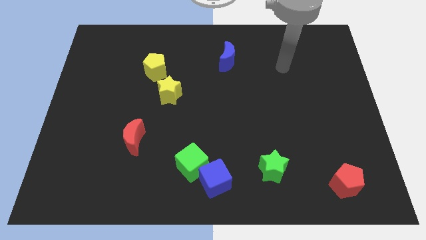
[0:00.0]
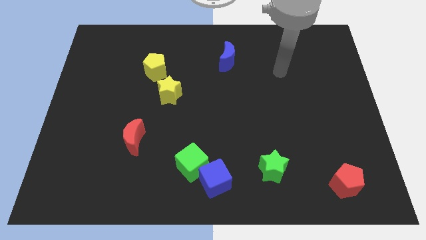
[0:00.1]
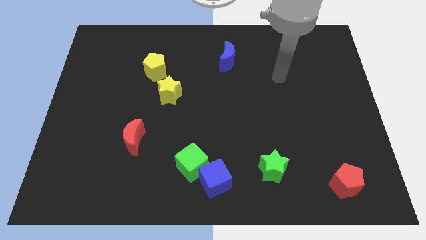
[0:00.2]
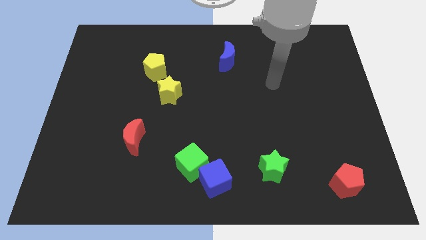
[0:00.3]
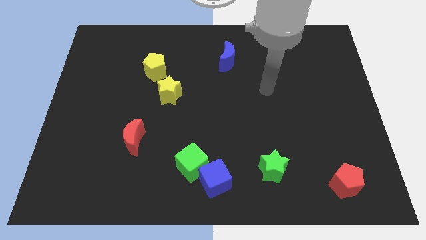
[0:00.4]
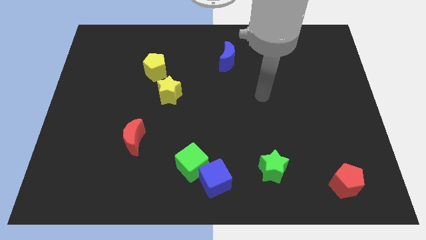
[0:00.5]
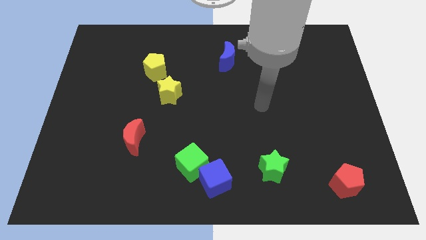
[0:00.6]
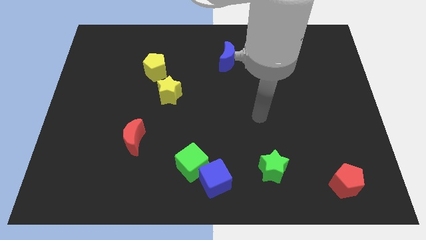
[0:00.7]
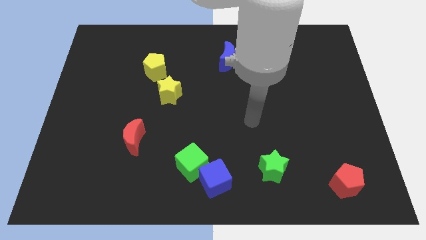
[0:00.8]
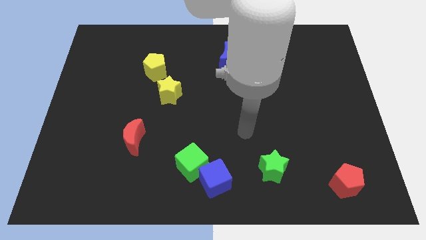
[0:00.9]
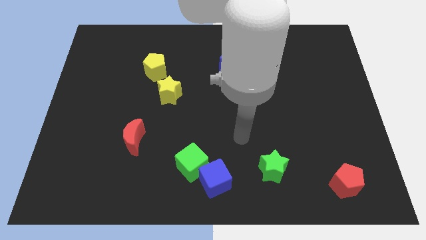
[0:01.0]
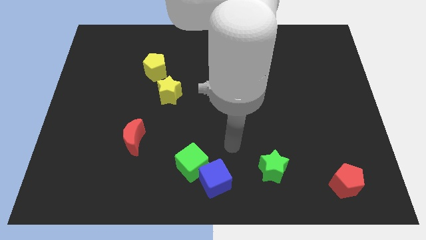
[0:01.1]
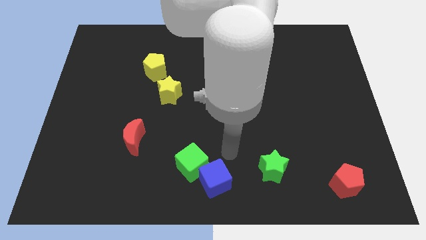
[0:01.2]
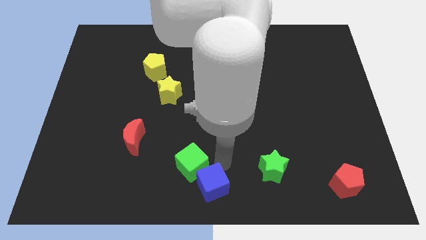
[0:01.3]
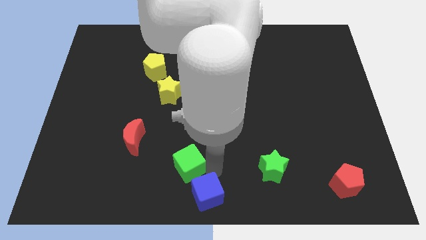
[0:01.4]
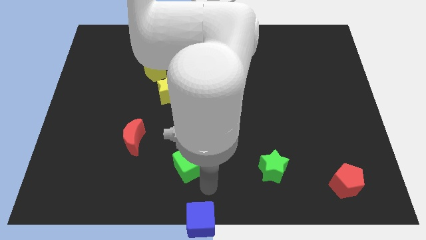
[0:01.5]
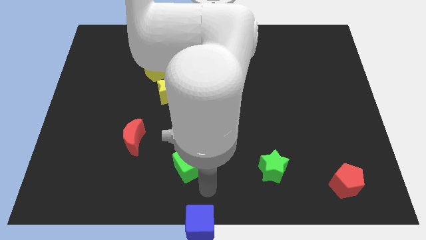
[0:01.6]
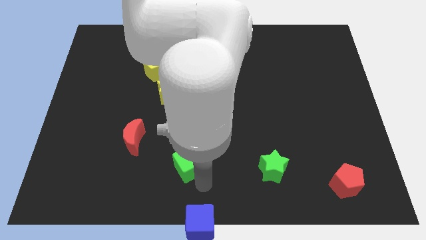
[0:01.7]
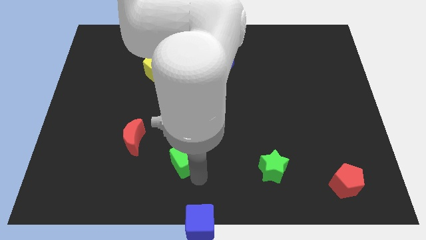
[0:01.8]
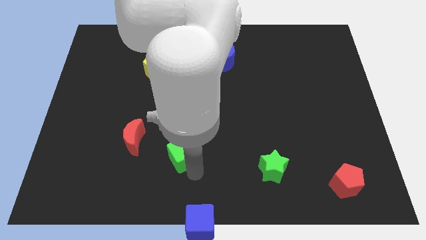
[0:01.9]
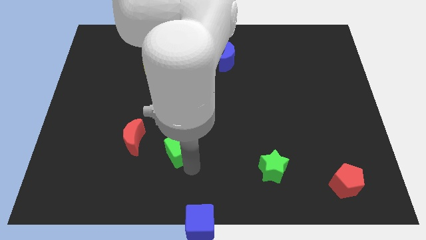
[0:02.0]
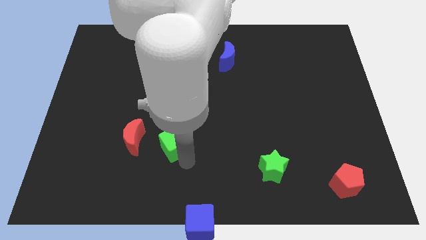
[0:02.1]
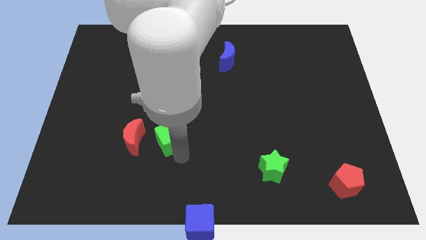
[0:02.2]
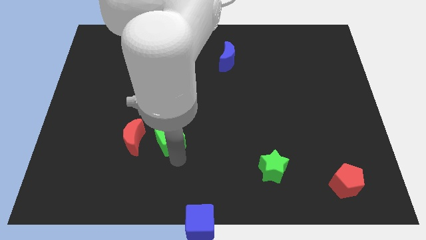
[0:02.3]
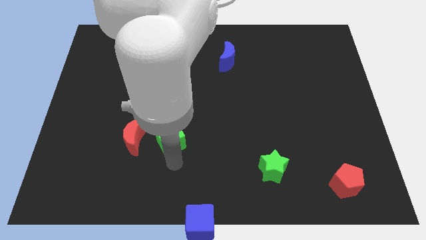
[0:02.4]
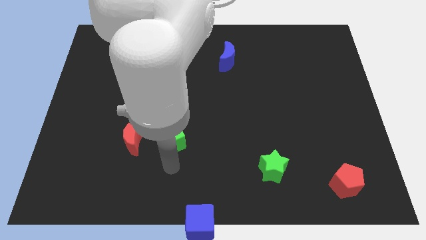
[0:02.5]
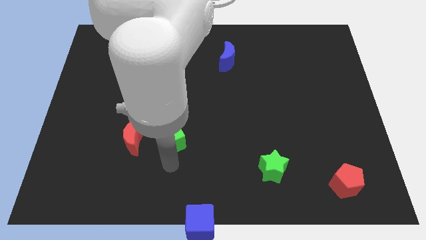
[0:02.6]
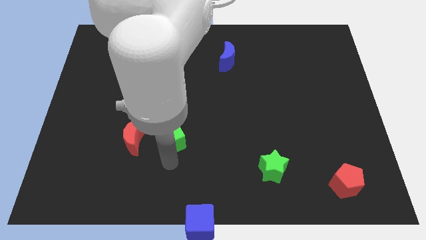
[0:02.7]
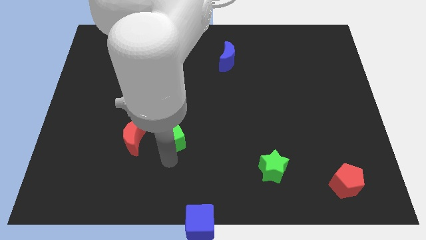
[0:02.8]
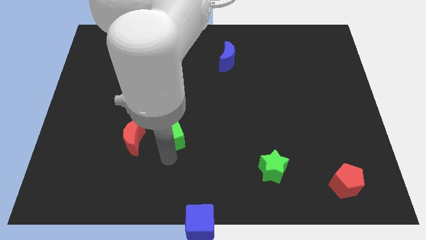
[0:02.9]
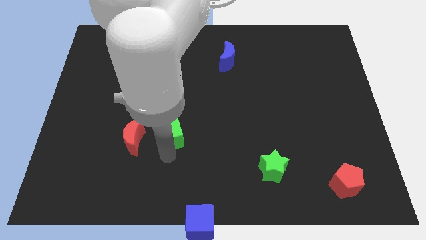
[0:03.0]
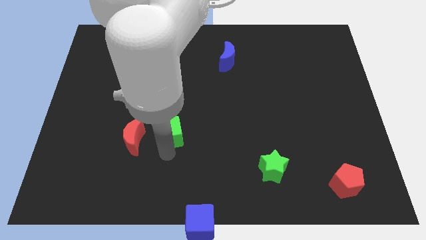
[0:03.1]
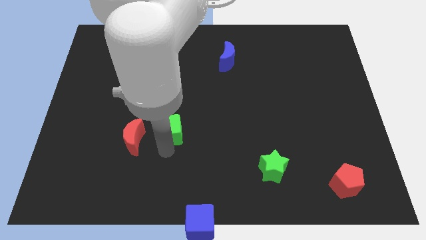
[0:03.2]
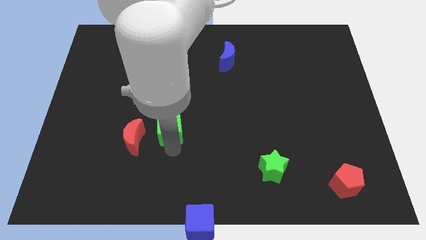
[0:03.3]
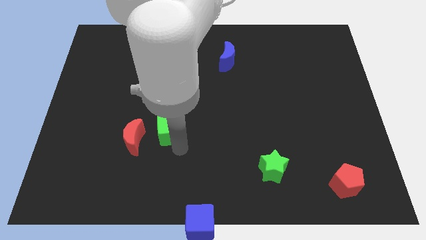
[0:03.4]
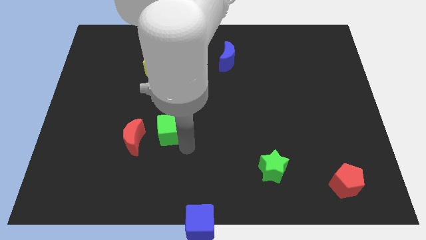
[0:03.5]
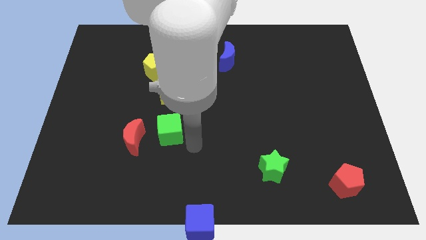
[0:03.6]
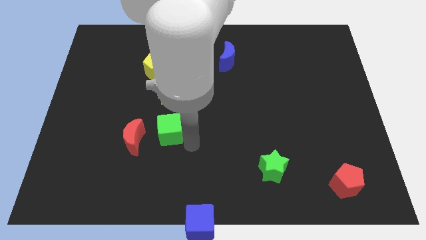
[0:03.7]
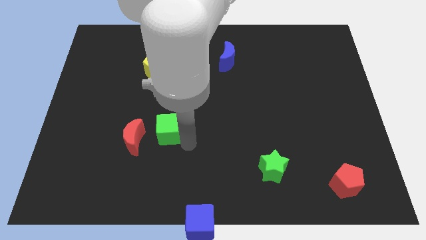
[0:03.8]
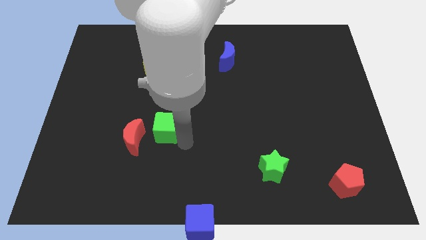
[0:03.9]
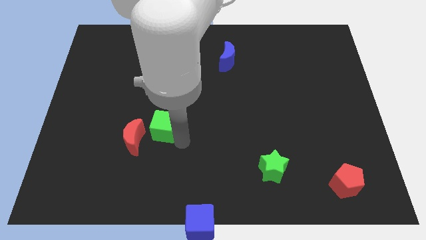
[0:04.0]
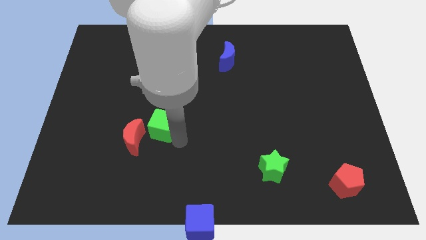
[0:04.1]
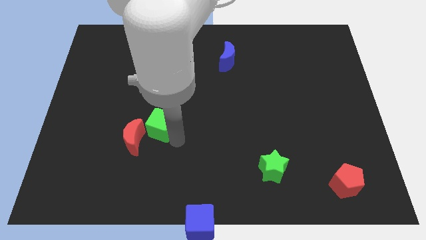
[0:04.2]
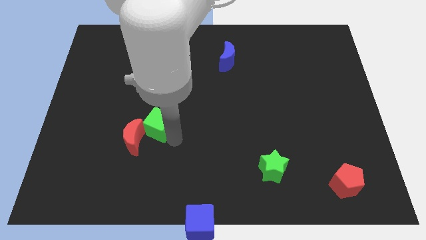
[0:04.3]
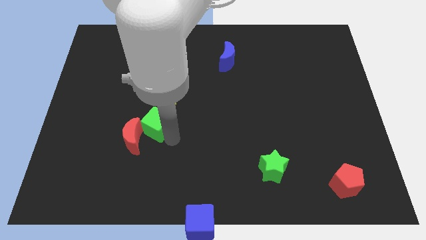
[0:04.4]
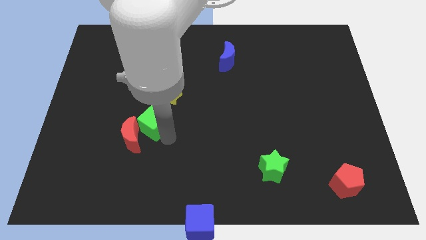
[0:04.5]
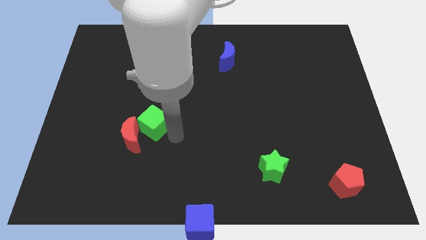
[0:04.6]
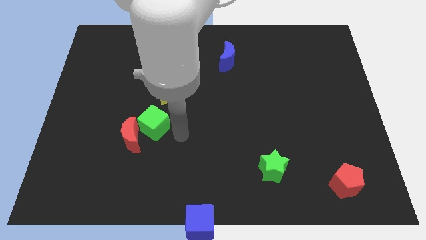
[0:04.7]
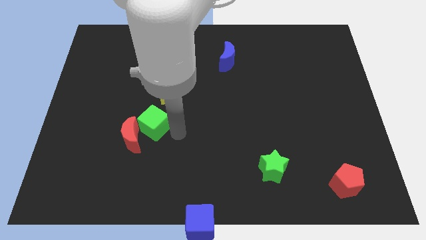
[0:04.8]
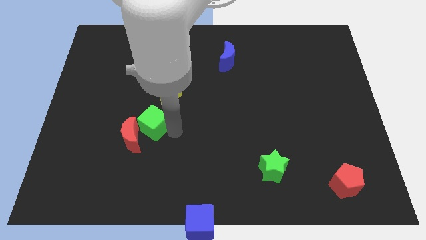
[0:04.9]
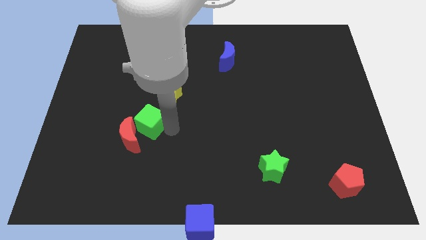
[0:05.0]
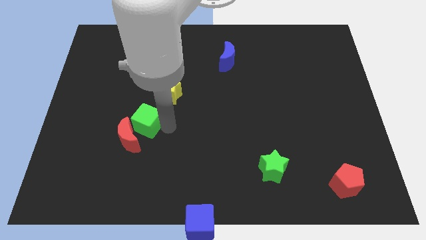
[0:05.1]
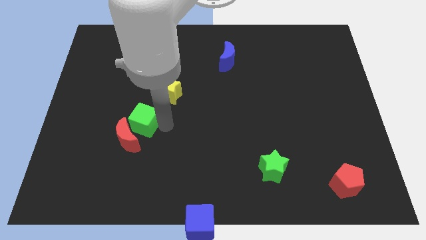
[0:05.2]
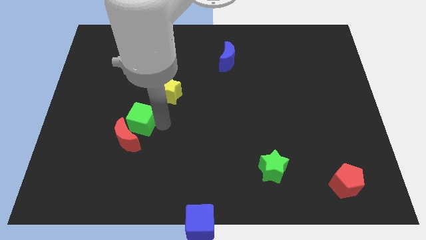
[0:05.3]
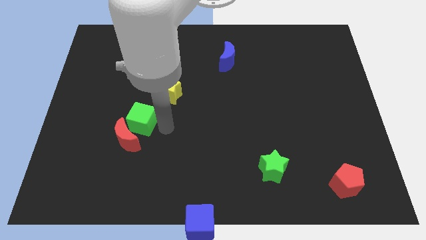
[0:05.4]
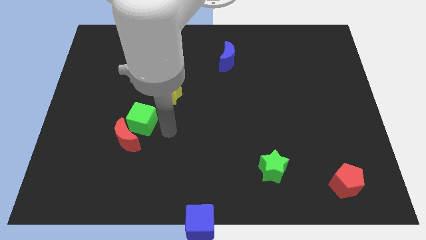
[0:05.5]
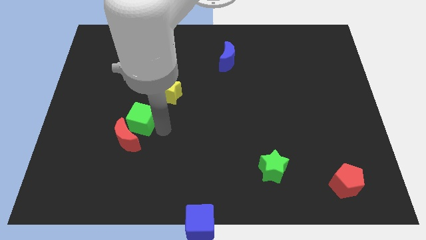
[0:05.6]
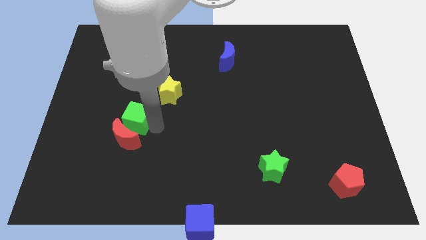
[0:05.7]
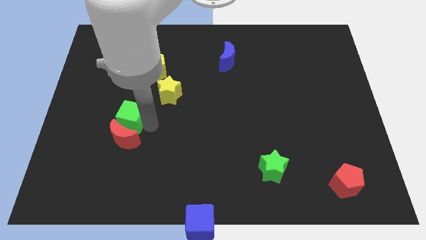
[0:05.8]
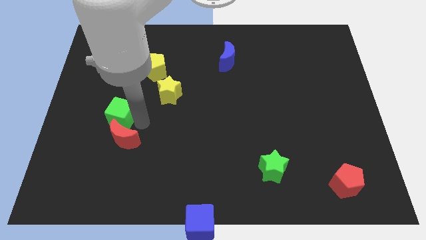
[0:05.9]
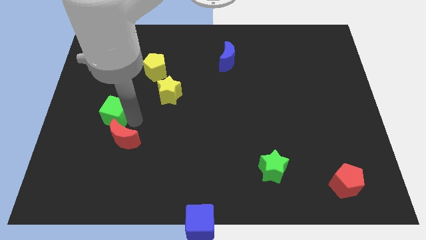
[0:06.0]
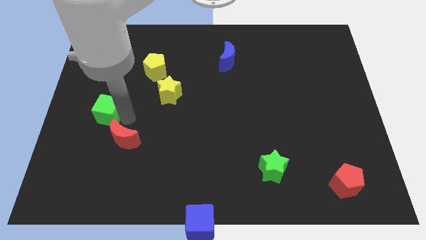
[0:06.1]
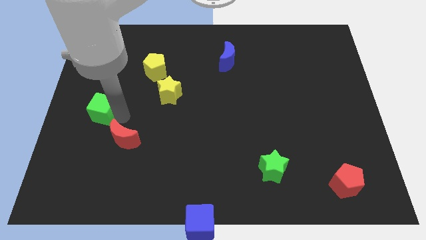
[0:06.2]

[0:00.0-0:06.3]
push the green cube to the left side

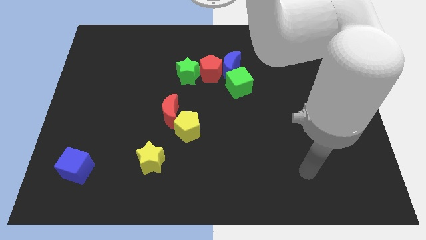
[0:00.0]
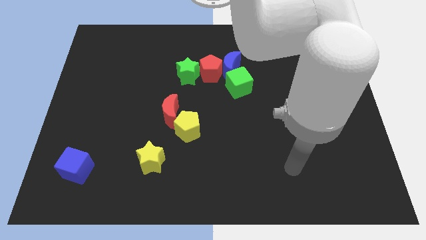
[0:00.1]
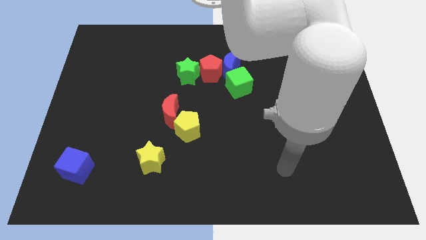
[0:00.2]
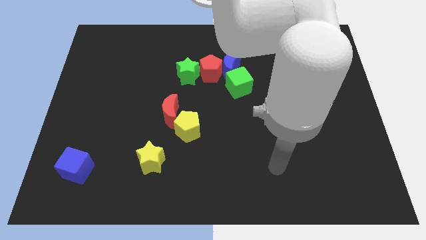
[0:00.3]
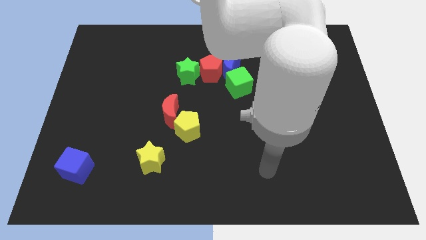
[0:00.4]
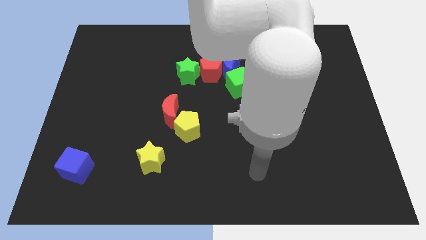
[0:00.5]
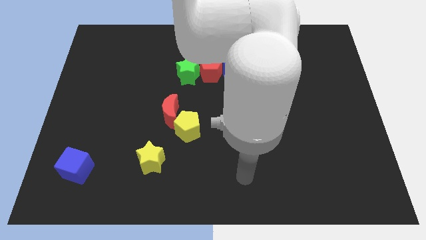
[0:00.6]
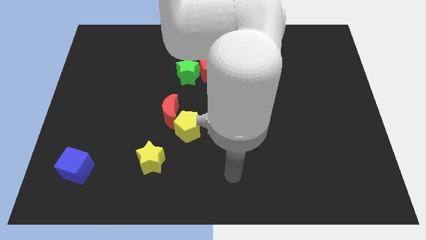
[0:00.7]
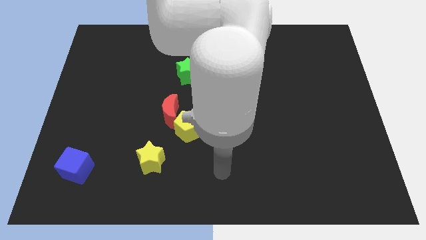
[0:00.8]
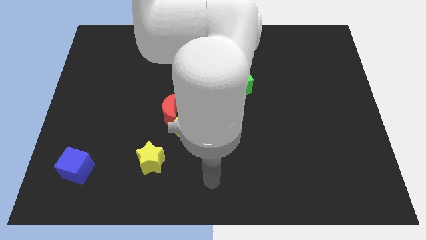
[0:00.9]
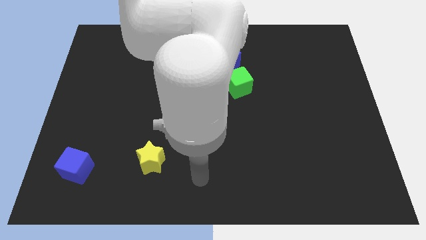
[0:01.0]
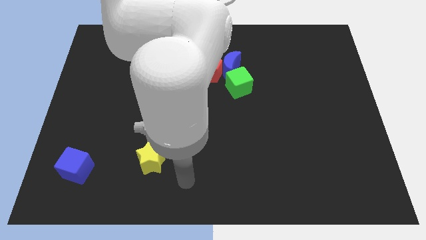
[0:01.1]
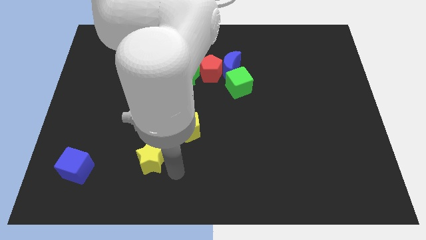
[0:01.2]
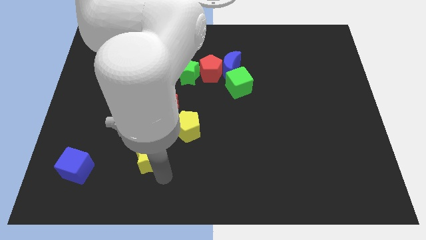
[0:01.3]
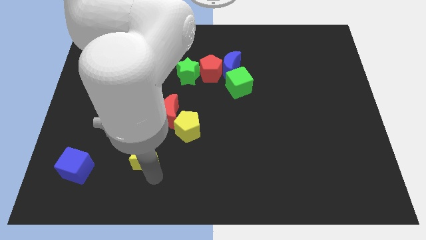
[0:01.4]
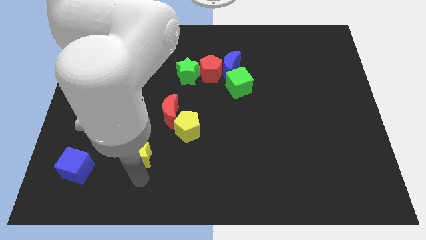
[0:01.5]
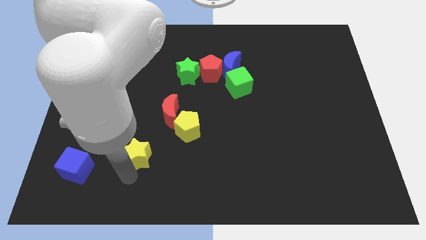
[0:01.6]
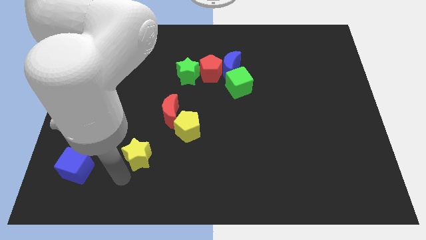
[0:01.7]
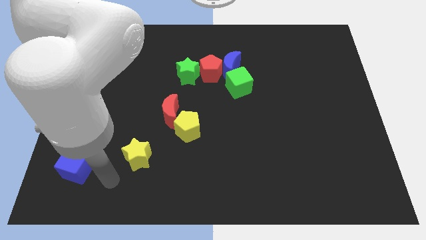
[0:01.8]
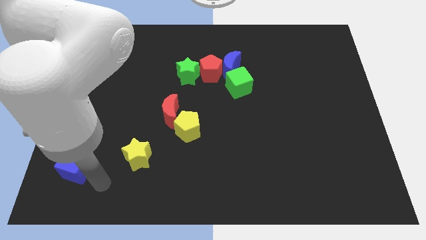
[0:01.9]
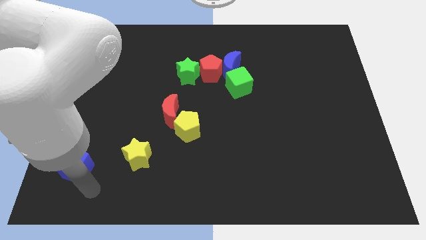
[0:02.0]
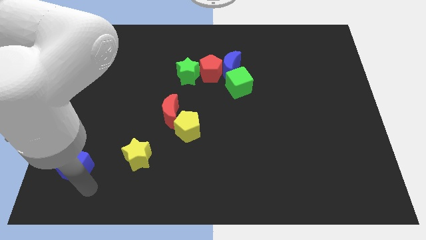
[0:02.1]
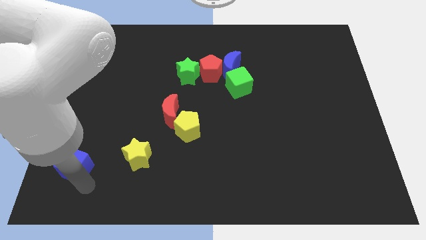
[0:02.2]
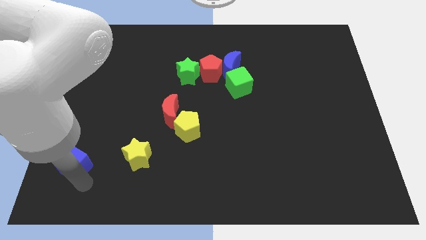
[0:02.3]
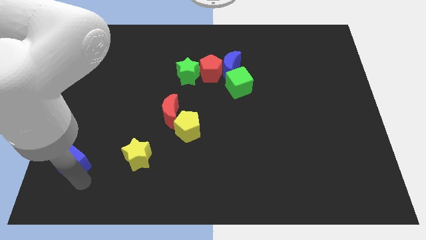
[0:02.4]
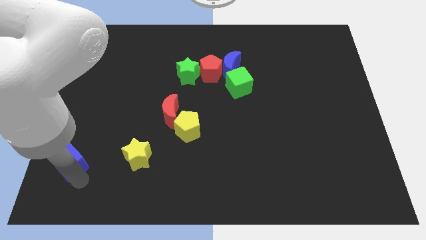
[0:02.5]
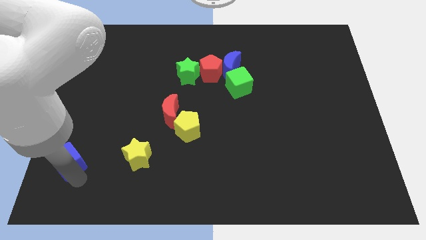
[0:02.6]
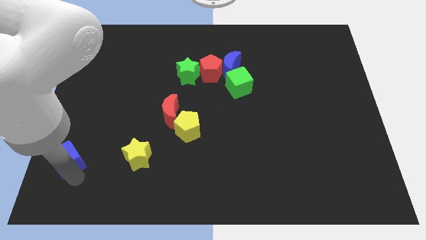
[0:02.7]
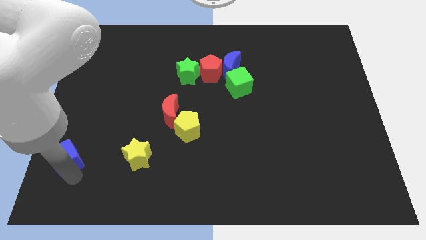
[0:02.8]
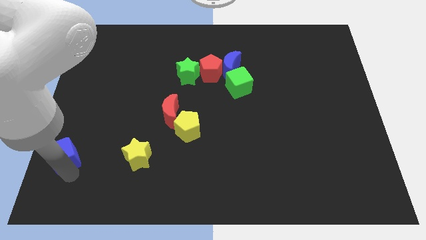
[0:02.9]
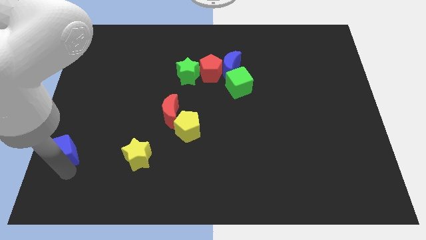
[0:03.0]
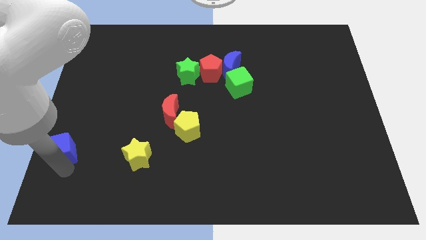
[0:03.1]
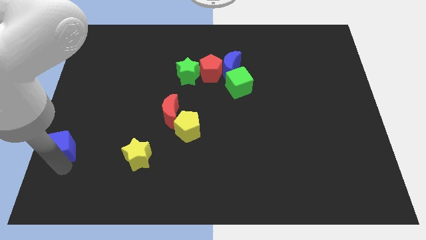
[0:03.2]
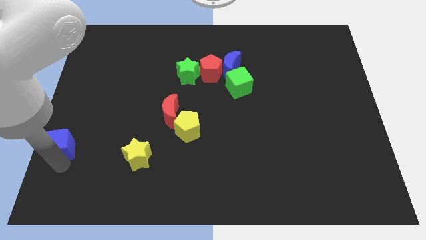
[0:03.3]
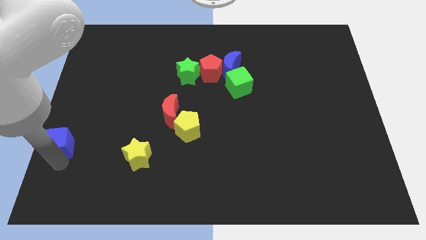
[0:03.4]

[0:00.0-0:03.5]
put the blue cube to the center left
